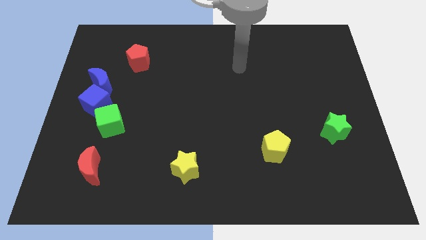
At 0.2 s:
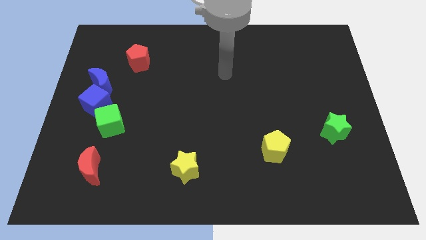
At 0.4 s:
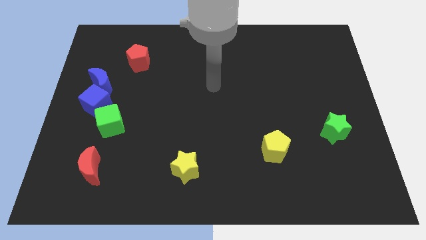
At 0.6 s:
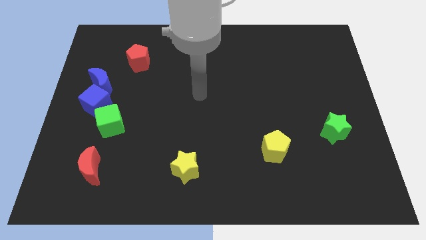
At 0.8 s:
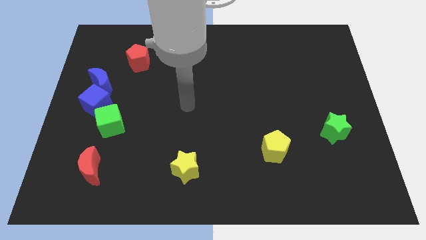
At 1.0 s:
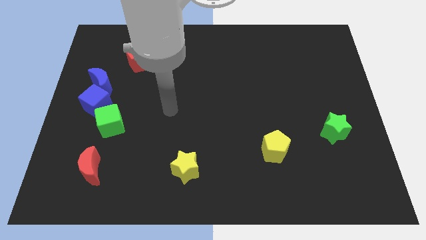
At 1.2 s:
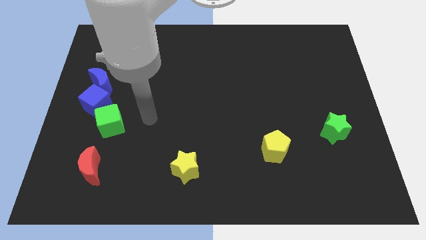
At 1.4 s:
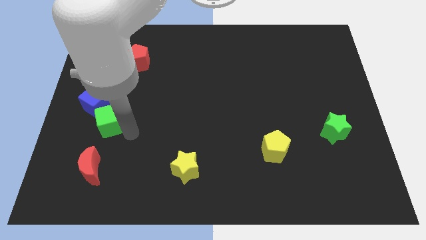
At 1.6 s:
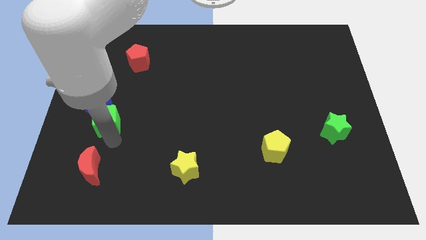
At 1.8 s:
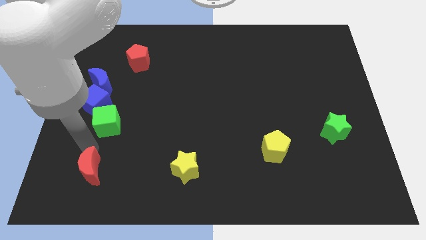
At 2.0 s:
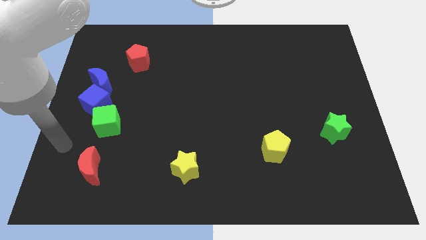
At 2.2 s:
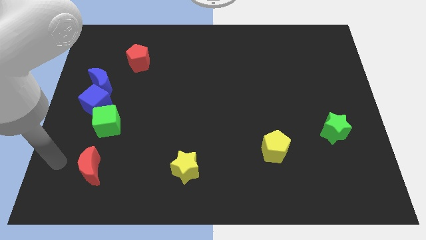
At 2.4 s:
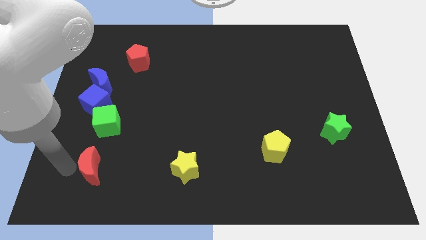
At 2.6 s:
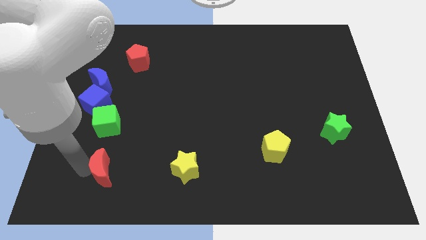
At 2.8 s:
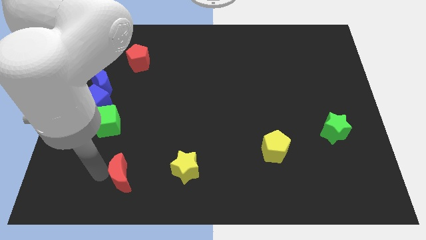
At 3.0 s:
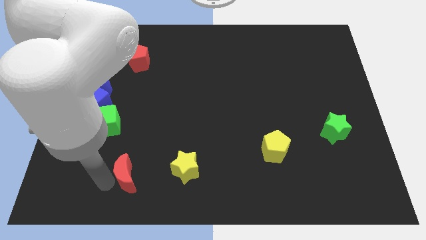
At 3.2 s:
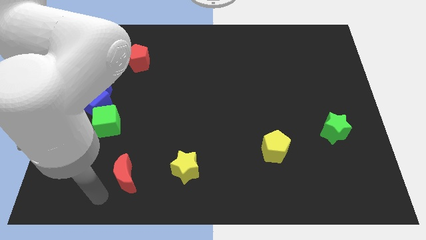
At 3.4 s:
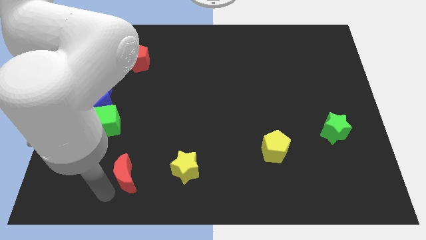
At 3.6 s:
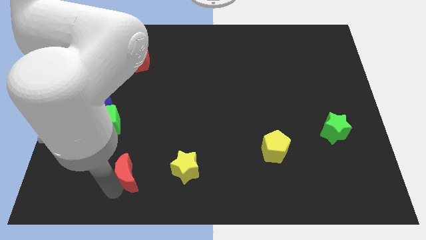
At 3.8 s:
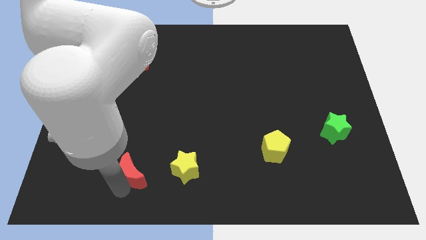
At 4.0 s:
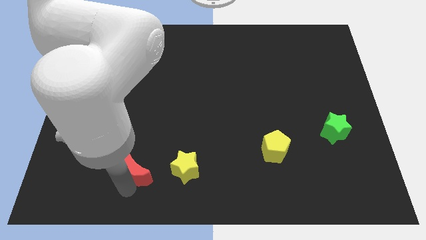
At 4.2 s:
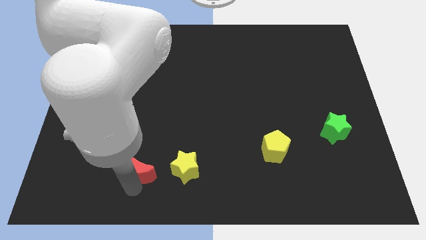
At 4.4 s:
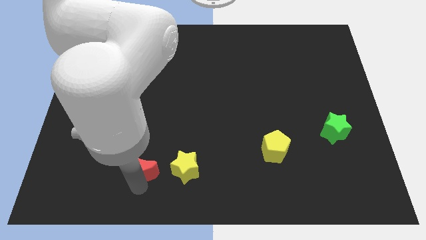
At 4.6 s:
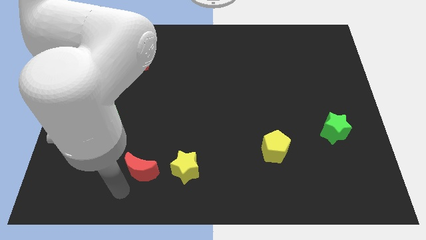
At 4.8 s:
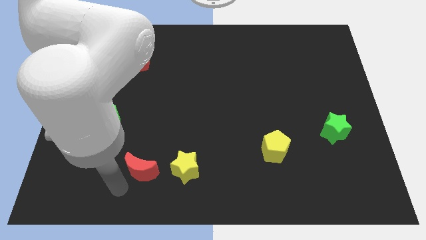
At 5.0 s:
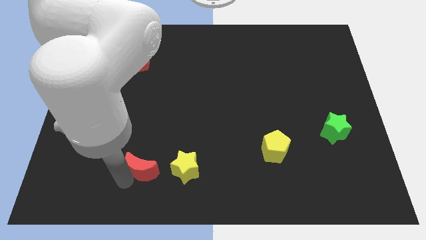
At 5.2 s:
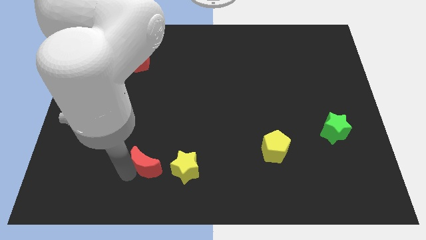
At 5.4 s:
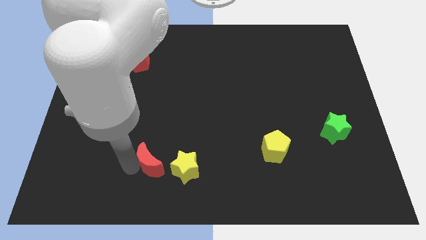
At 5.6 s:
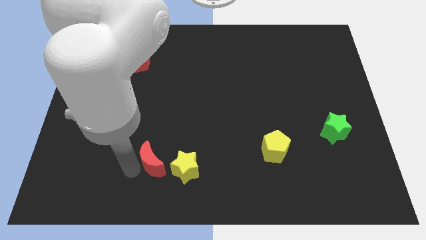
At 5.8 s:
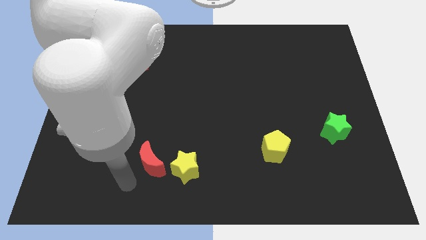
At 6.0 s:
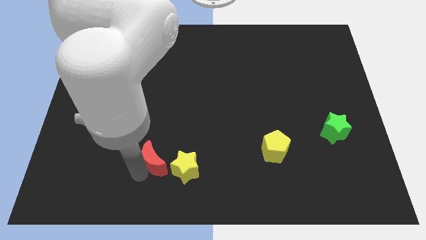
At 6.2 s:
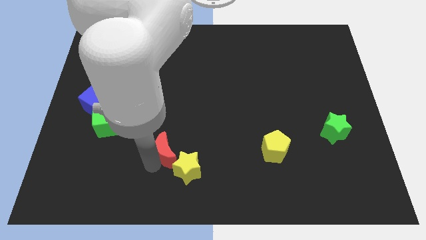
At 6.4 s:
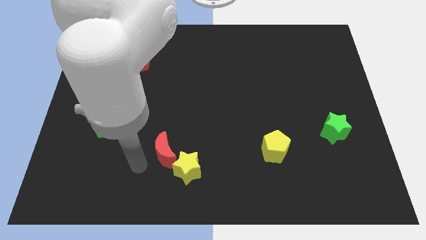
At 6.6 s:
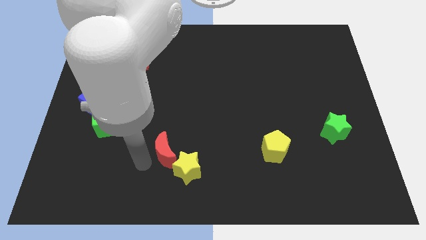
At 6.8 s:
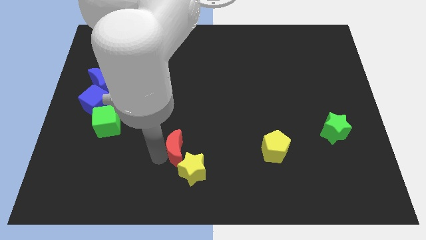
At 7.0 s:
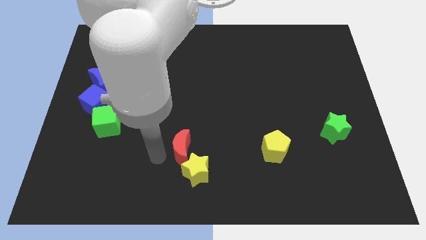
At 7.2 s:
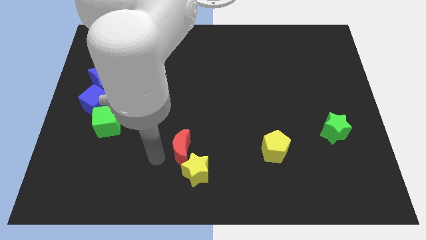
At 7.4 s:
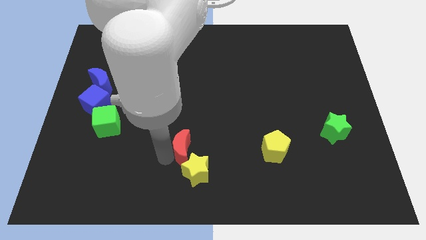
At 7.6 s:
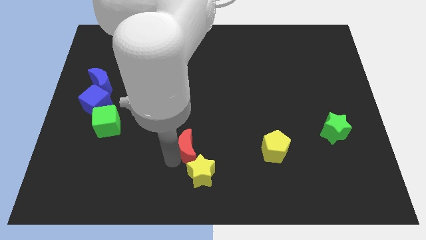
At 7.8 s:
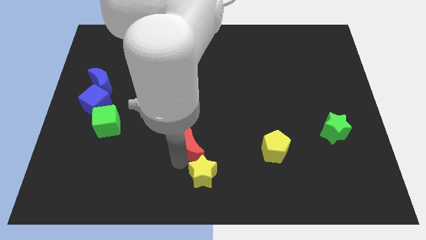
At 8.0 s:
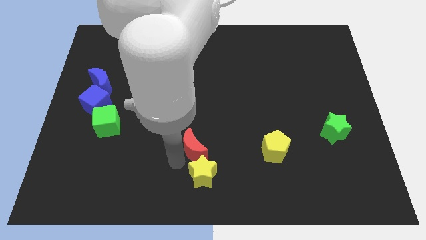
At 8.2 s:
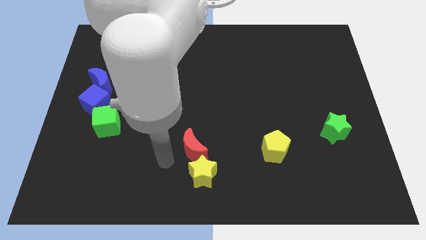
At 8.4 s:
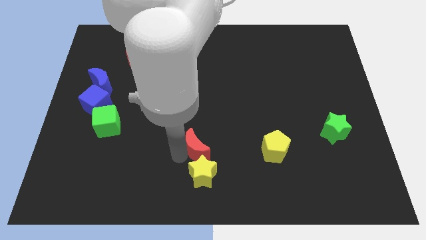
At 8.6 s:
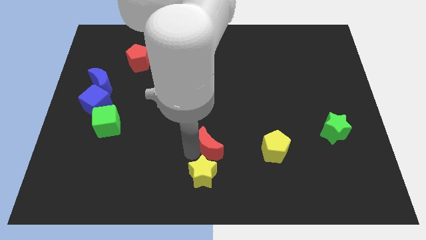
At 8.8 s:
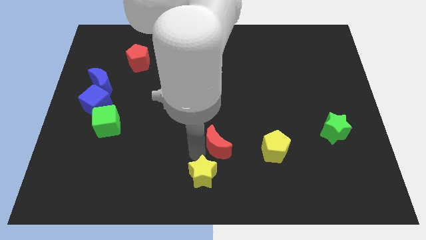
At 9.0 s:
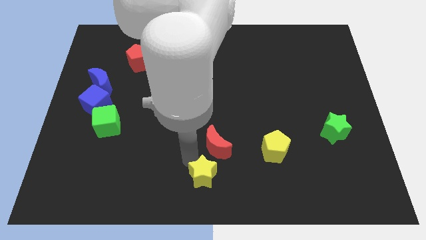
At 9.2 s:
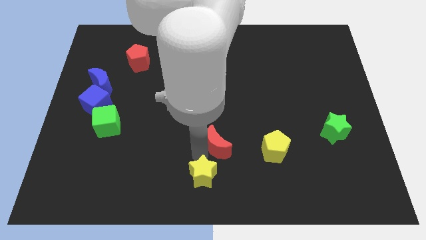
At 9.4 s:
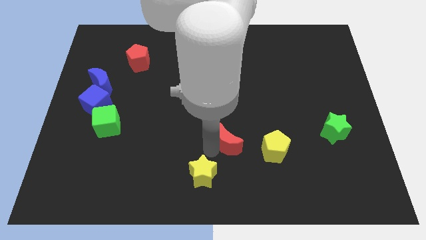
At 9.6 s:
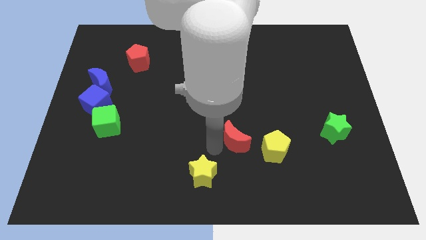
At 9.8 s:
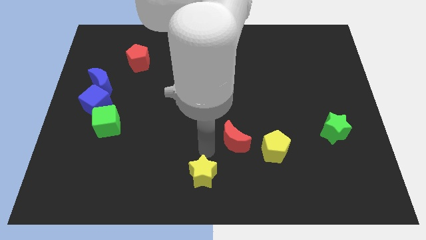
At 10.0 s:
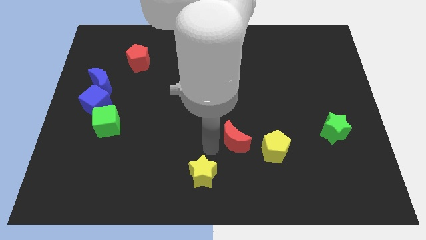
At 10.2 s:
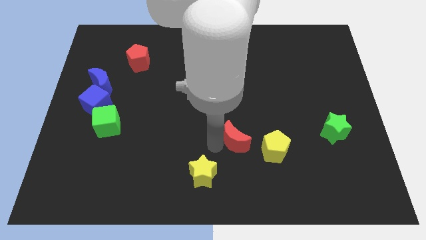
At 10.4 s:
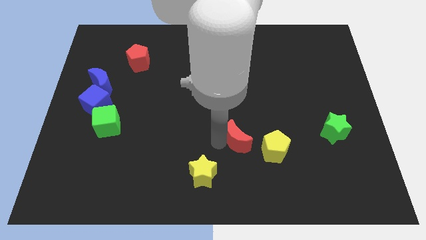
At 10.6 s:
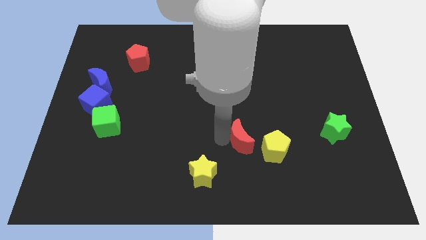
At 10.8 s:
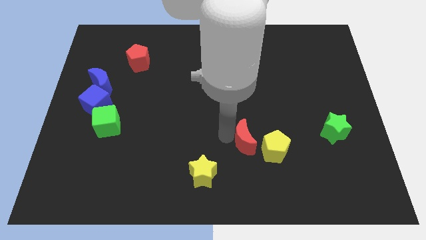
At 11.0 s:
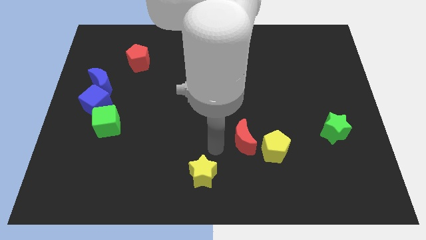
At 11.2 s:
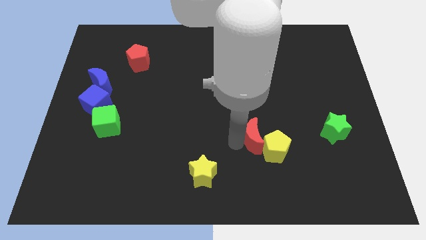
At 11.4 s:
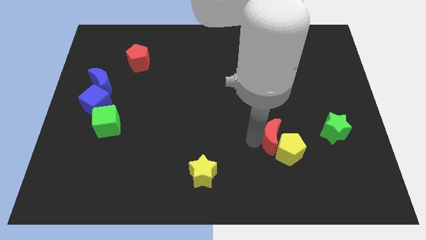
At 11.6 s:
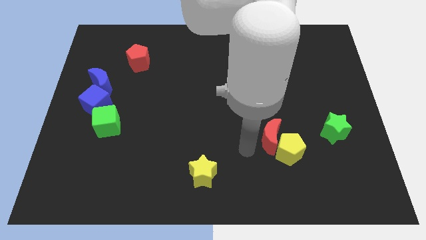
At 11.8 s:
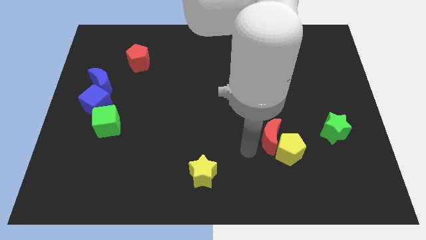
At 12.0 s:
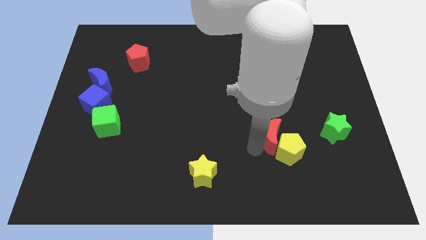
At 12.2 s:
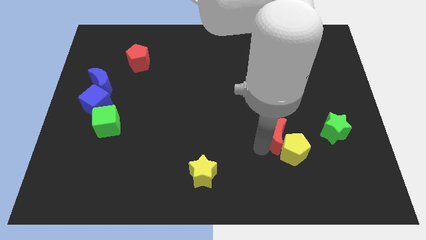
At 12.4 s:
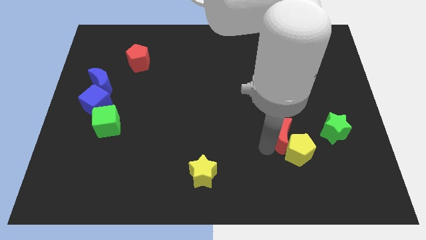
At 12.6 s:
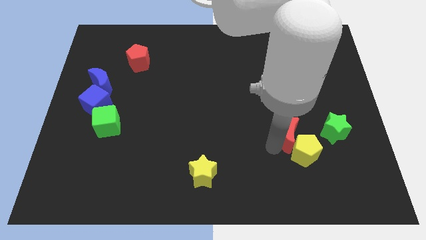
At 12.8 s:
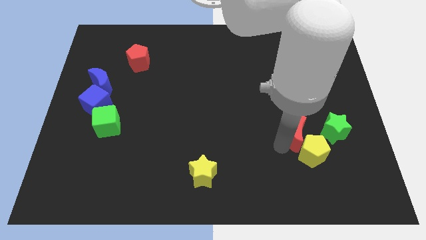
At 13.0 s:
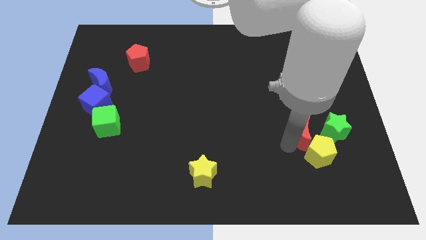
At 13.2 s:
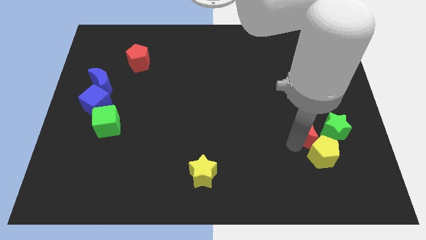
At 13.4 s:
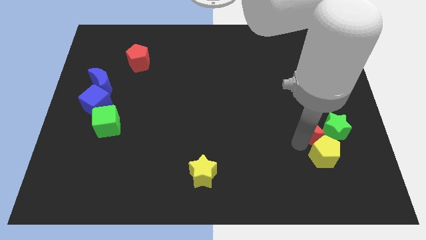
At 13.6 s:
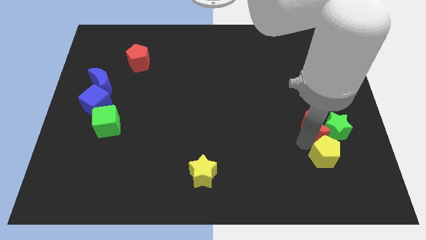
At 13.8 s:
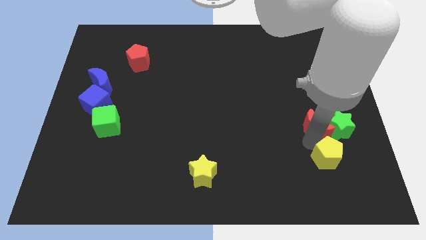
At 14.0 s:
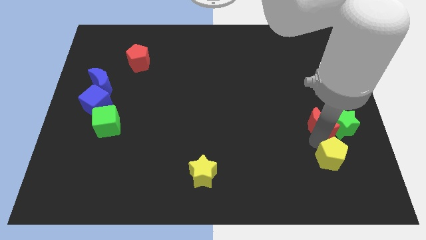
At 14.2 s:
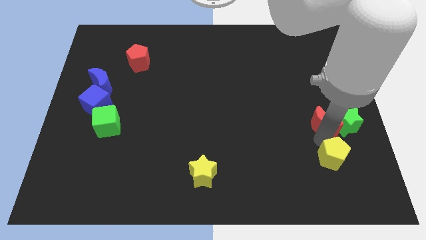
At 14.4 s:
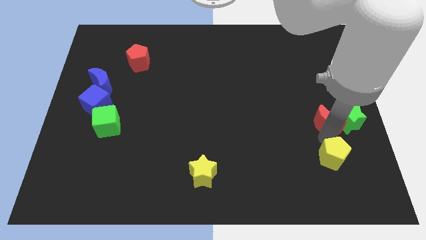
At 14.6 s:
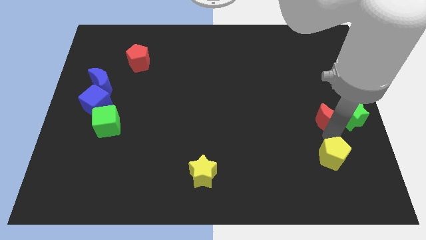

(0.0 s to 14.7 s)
put the red moon to the center right
